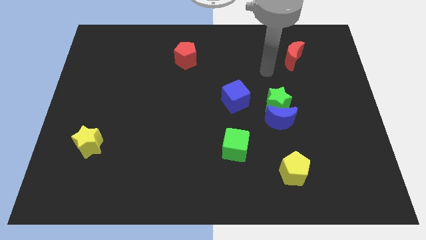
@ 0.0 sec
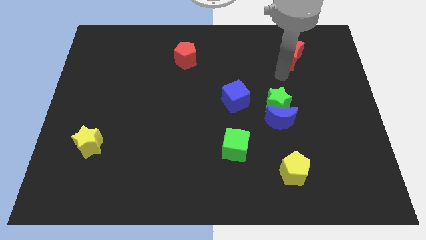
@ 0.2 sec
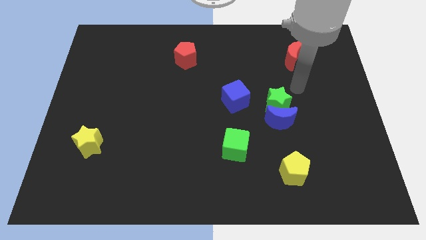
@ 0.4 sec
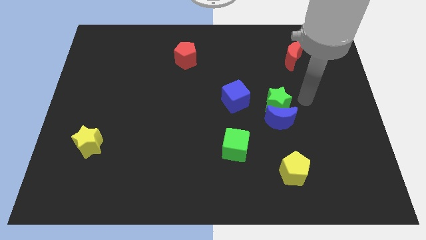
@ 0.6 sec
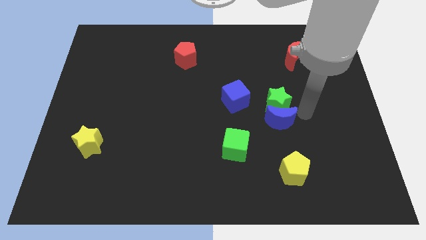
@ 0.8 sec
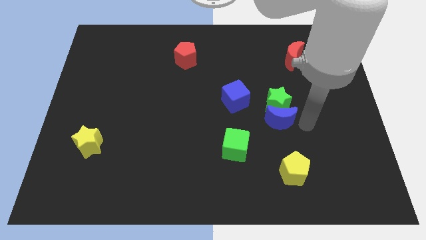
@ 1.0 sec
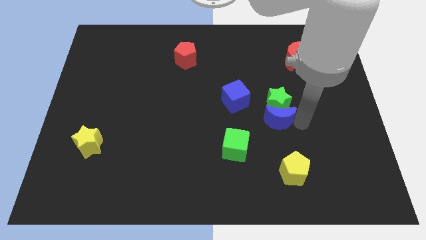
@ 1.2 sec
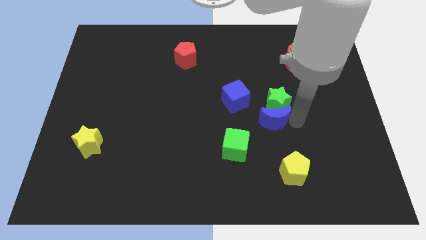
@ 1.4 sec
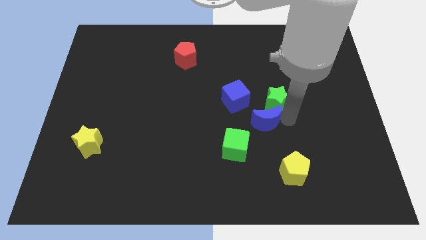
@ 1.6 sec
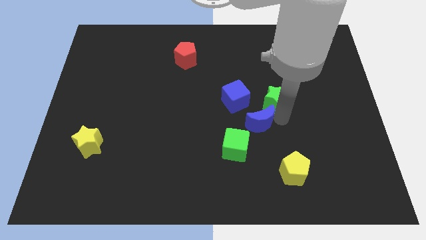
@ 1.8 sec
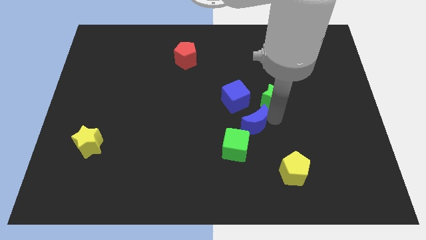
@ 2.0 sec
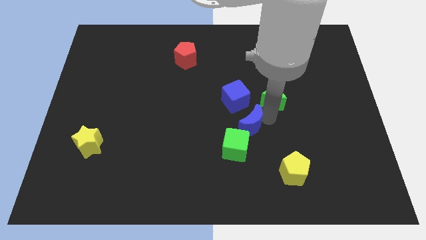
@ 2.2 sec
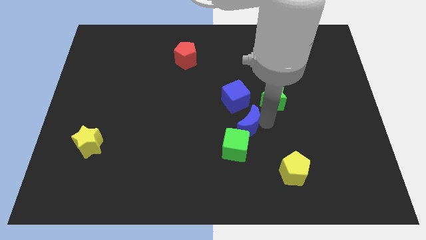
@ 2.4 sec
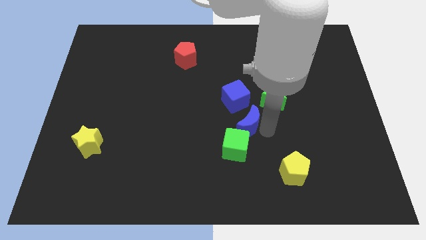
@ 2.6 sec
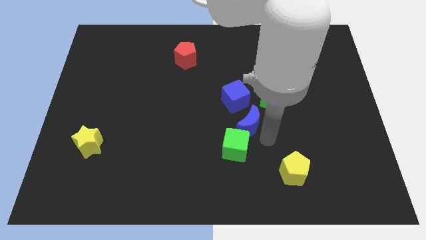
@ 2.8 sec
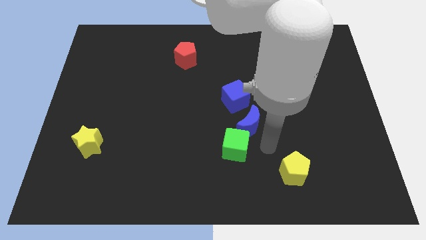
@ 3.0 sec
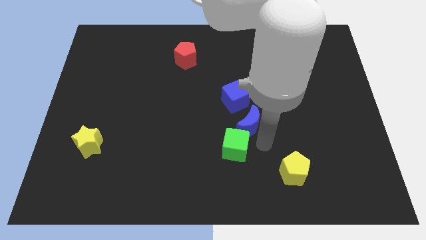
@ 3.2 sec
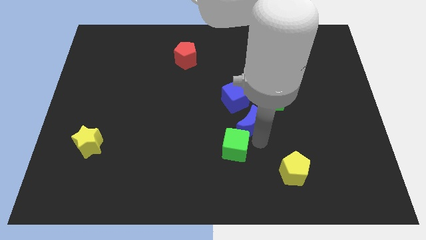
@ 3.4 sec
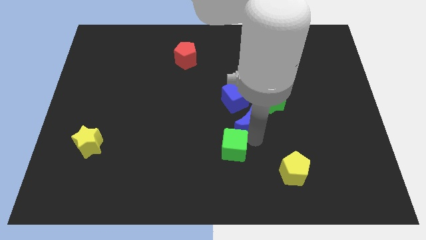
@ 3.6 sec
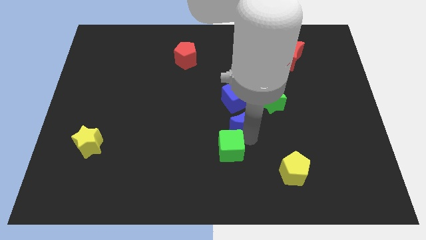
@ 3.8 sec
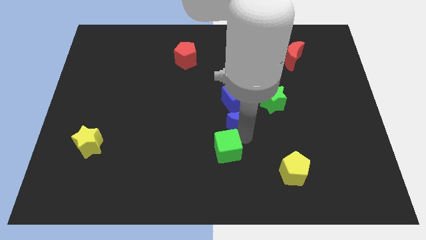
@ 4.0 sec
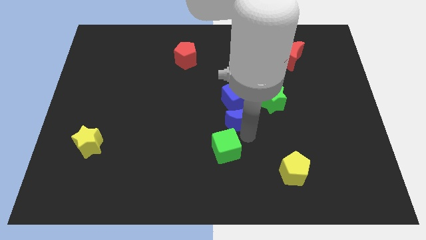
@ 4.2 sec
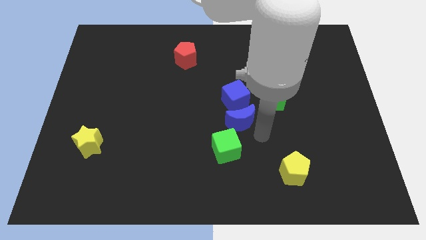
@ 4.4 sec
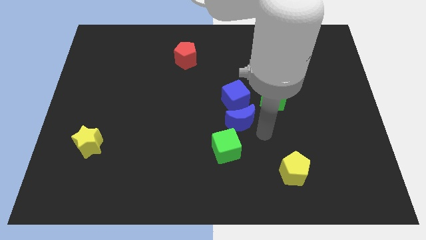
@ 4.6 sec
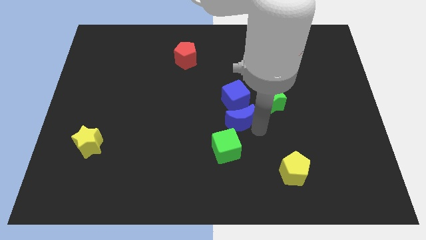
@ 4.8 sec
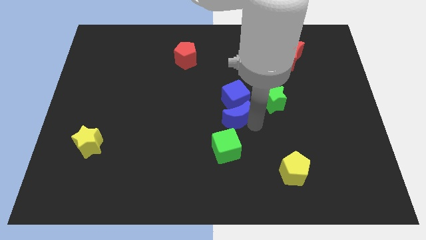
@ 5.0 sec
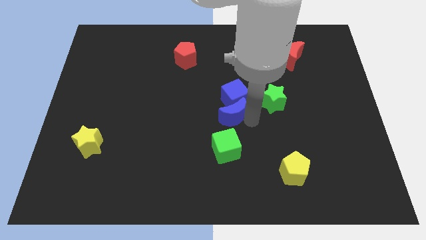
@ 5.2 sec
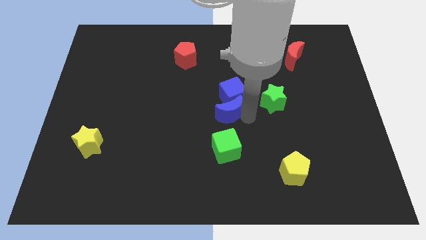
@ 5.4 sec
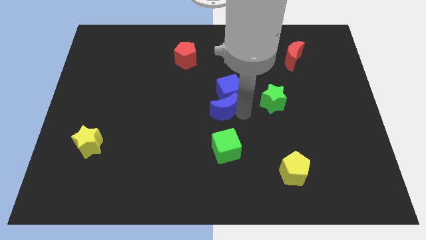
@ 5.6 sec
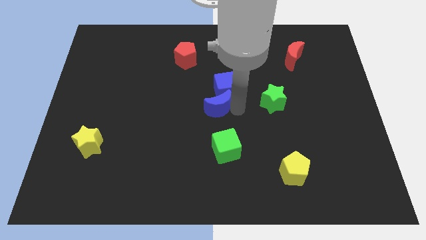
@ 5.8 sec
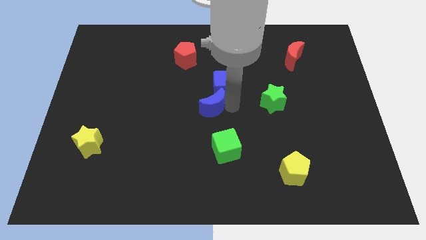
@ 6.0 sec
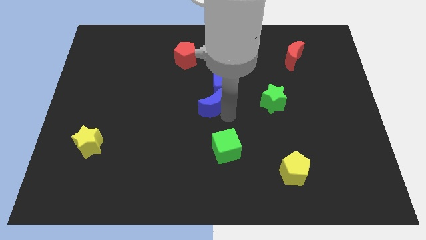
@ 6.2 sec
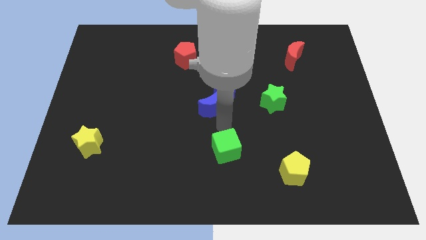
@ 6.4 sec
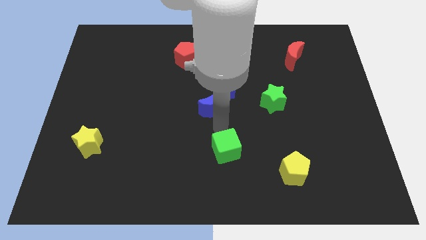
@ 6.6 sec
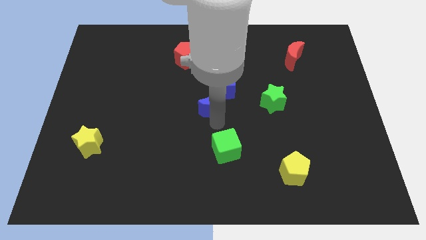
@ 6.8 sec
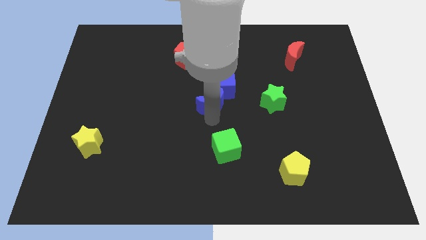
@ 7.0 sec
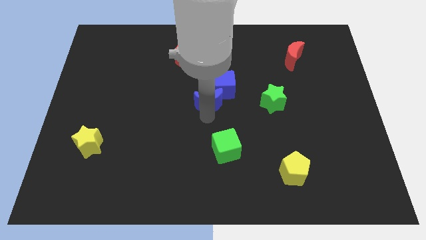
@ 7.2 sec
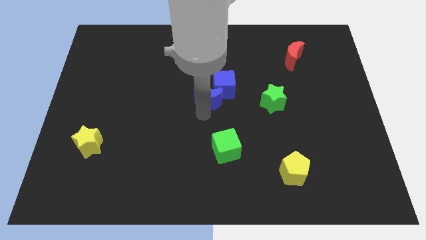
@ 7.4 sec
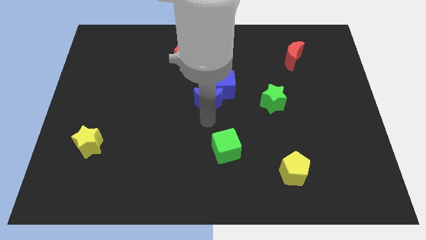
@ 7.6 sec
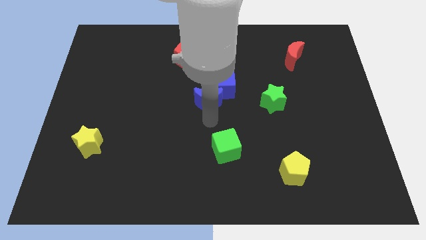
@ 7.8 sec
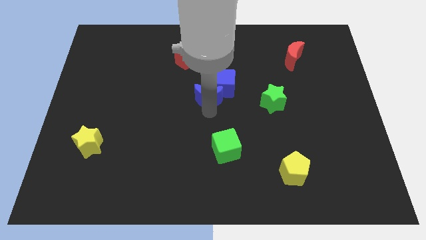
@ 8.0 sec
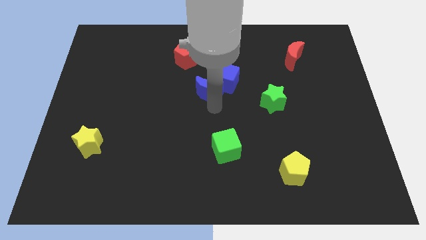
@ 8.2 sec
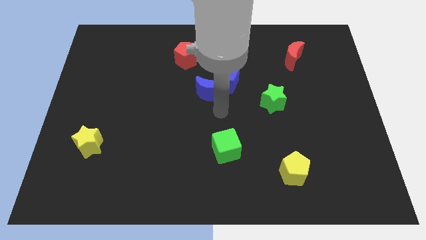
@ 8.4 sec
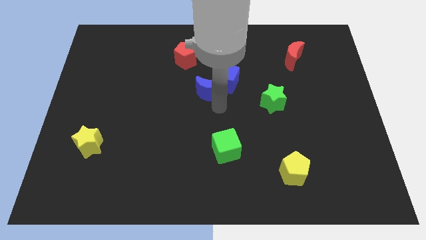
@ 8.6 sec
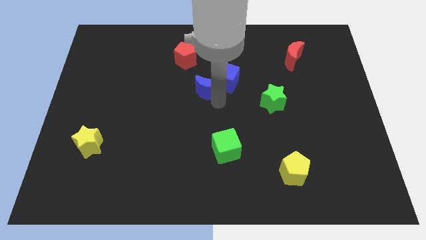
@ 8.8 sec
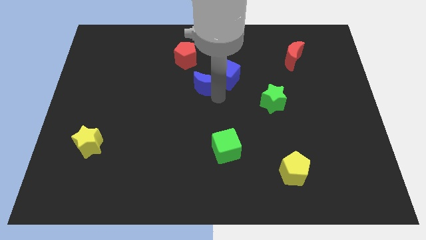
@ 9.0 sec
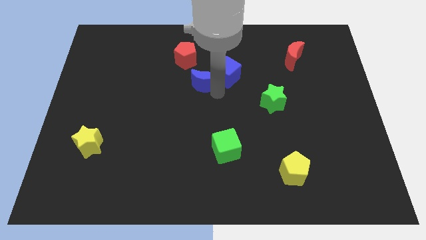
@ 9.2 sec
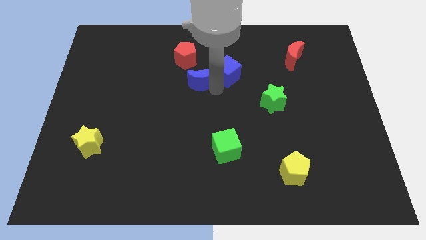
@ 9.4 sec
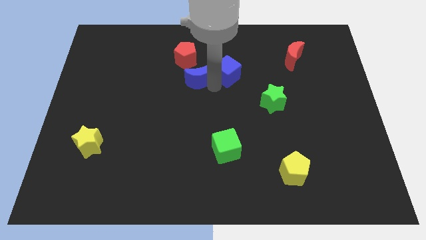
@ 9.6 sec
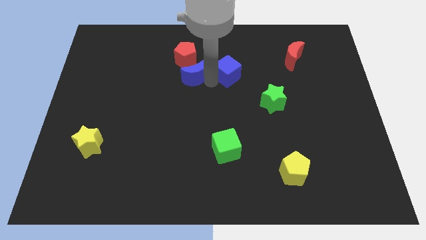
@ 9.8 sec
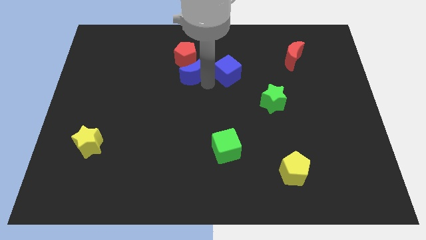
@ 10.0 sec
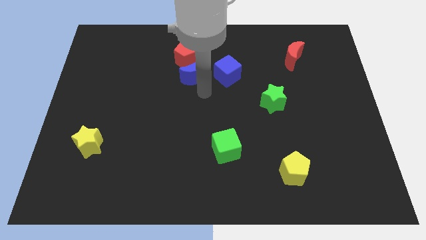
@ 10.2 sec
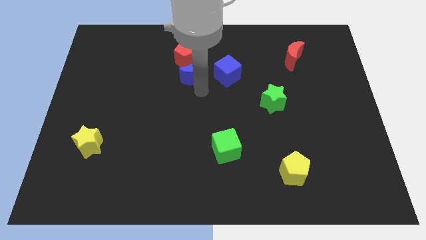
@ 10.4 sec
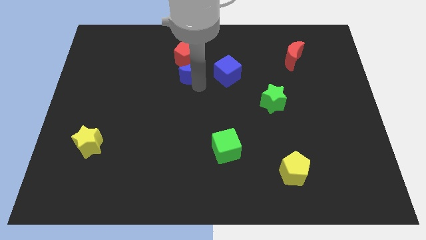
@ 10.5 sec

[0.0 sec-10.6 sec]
push the blue moon next to the red pentagon

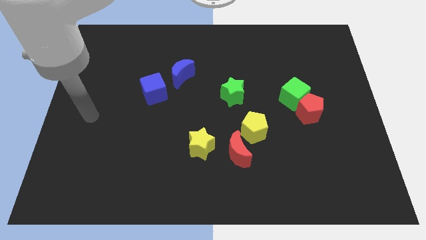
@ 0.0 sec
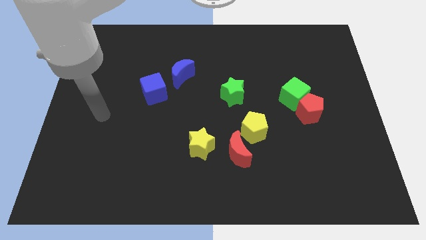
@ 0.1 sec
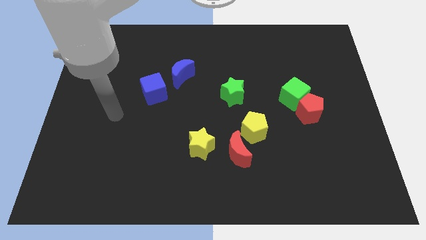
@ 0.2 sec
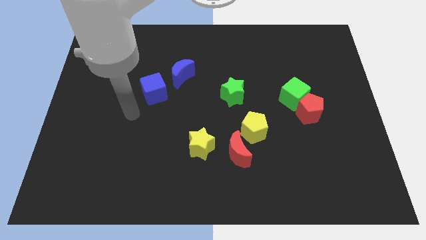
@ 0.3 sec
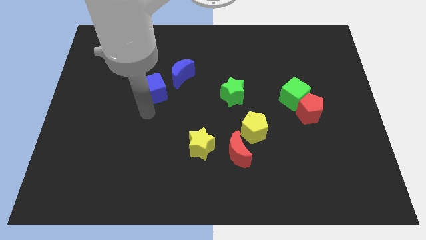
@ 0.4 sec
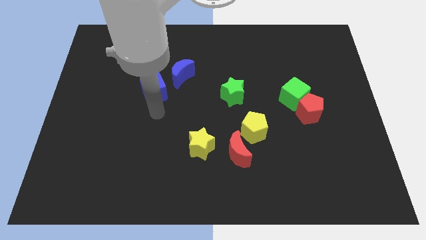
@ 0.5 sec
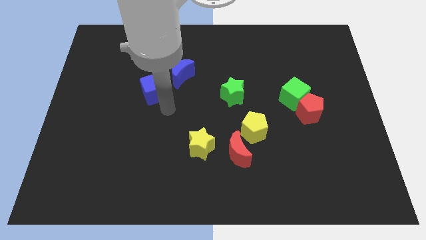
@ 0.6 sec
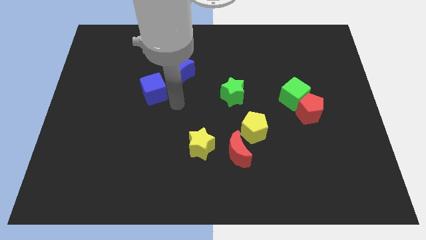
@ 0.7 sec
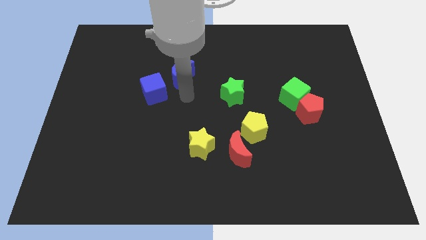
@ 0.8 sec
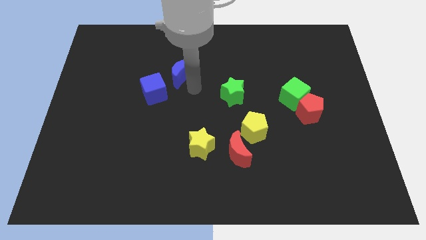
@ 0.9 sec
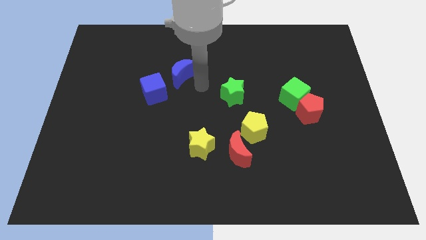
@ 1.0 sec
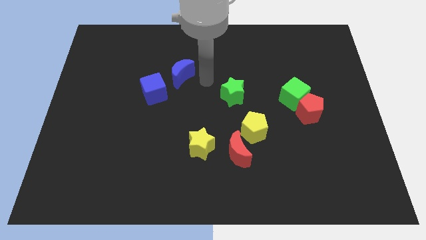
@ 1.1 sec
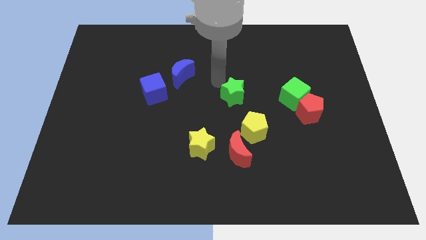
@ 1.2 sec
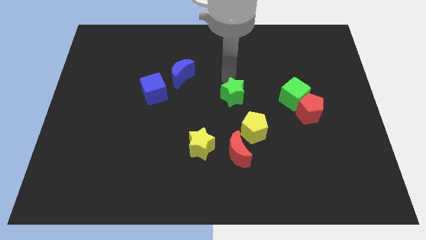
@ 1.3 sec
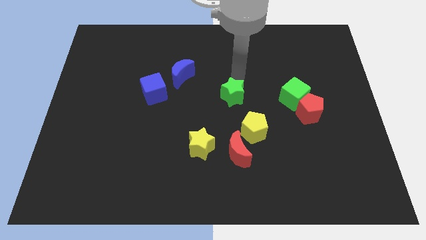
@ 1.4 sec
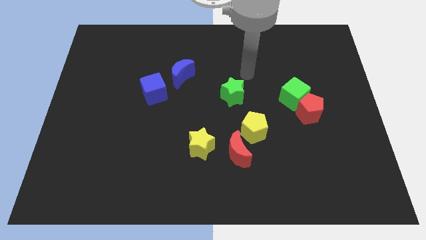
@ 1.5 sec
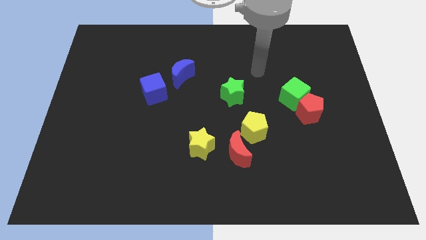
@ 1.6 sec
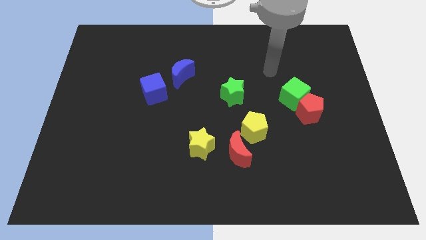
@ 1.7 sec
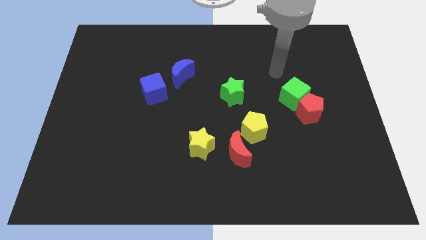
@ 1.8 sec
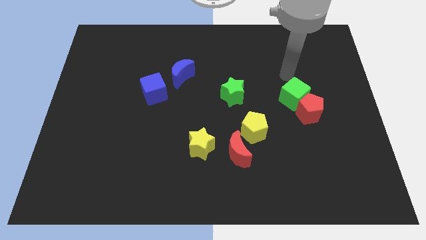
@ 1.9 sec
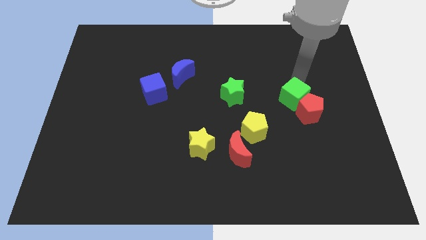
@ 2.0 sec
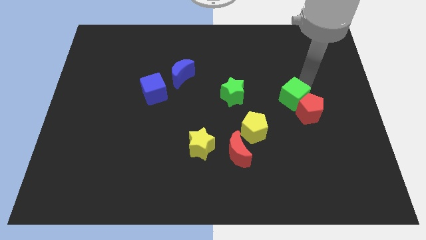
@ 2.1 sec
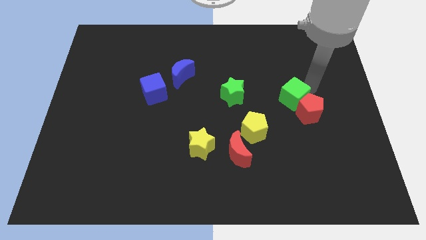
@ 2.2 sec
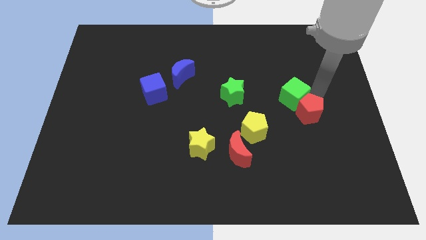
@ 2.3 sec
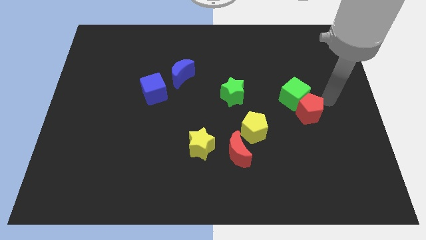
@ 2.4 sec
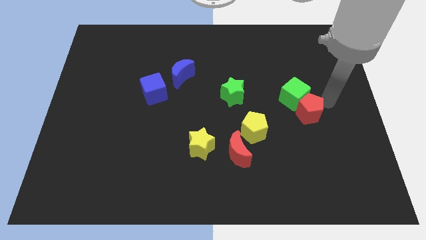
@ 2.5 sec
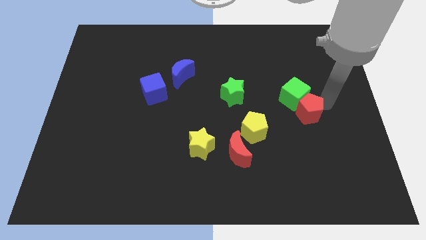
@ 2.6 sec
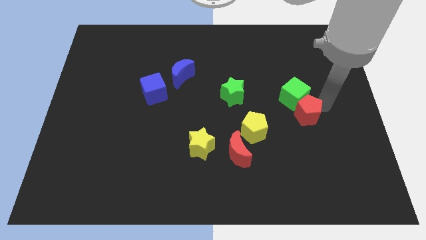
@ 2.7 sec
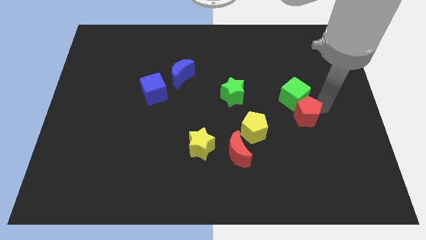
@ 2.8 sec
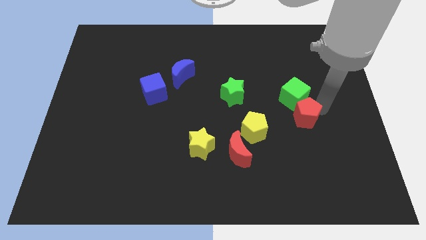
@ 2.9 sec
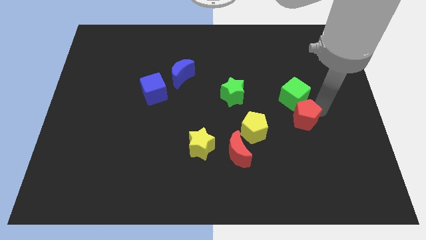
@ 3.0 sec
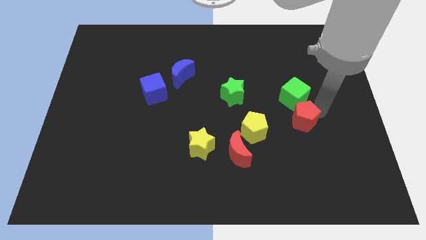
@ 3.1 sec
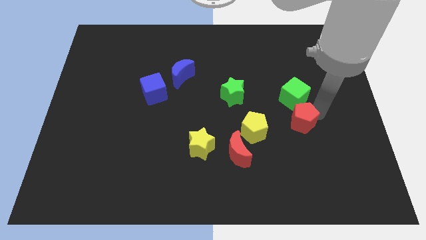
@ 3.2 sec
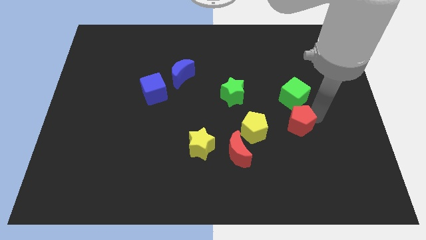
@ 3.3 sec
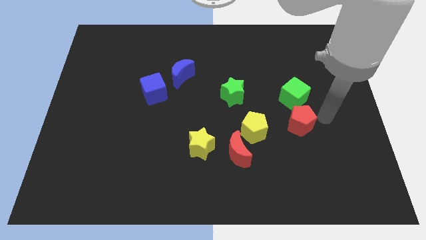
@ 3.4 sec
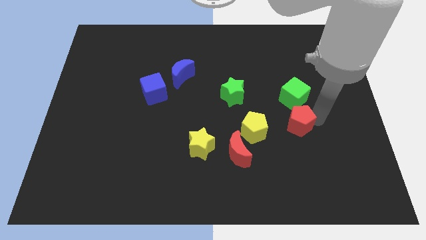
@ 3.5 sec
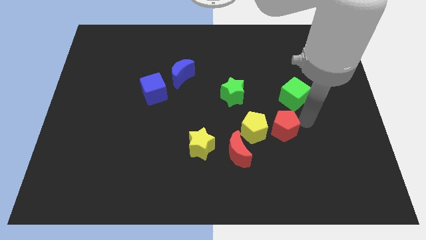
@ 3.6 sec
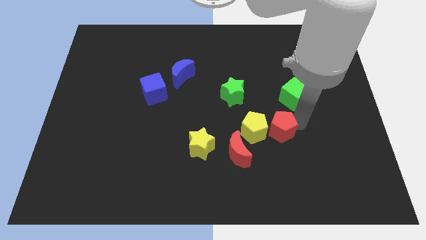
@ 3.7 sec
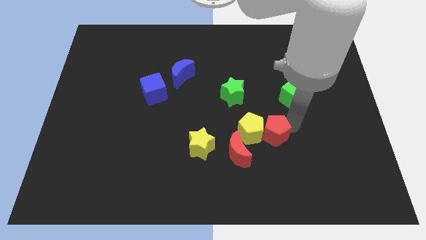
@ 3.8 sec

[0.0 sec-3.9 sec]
push the red pentagon to the yellow pentagon
